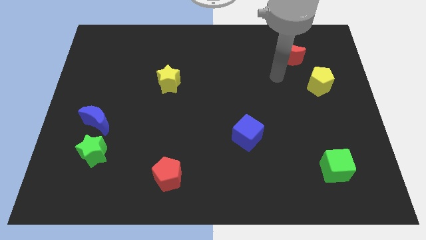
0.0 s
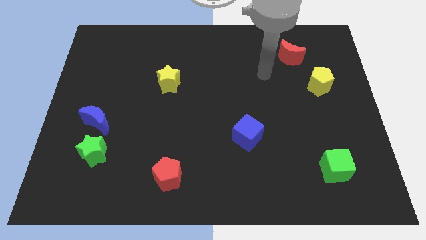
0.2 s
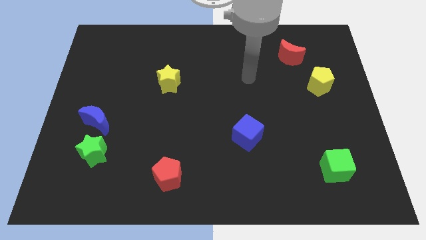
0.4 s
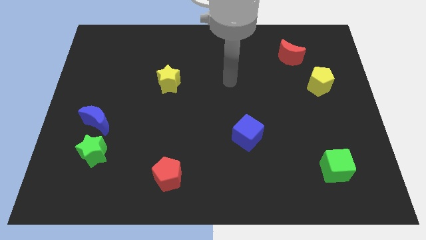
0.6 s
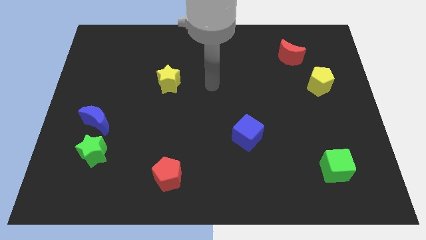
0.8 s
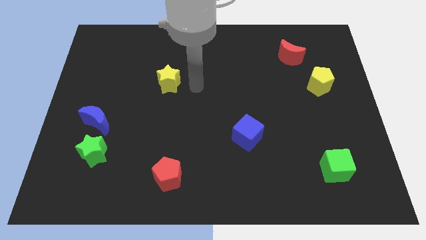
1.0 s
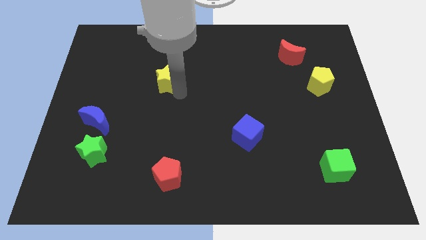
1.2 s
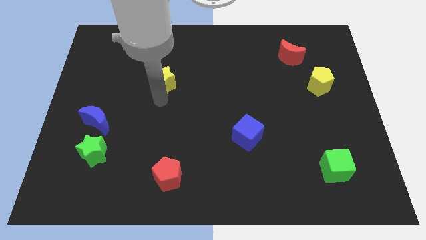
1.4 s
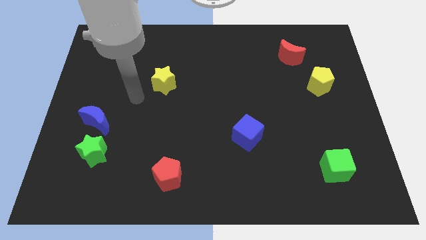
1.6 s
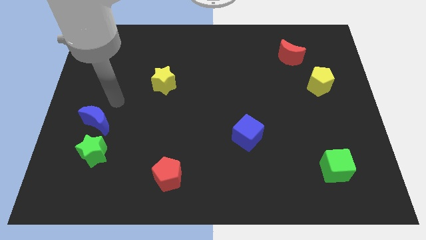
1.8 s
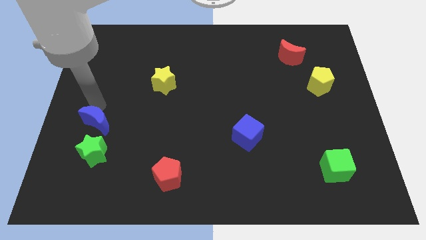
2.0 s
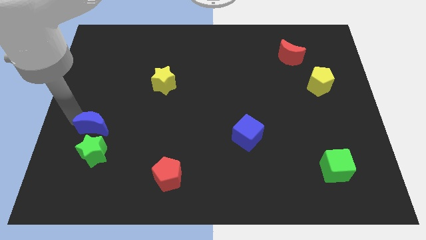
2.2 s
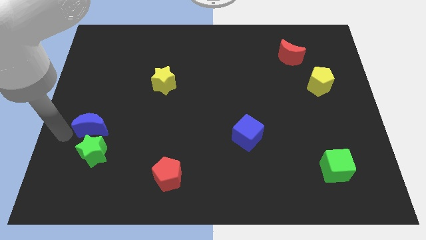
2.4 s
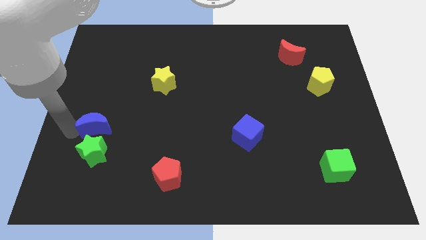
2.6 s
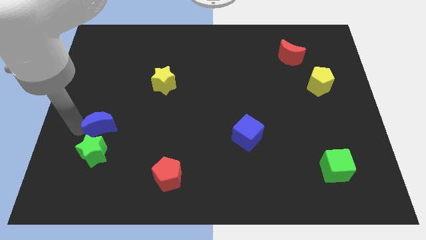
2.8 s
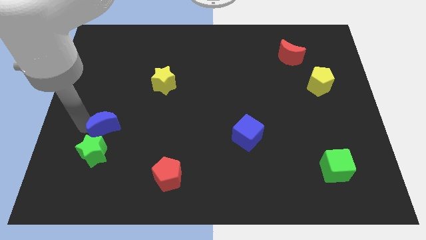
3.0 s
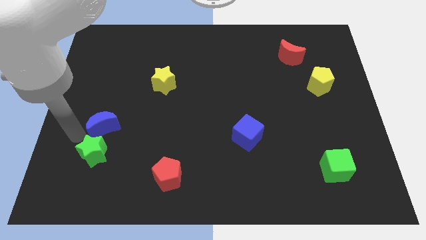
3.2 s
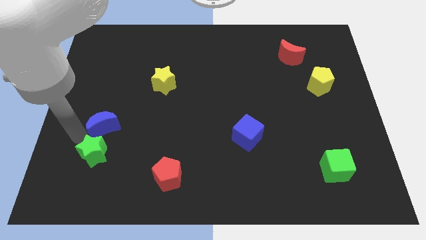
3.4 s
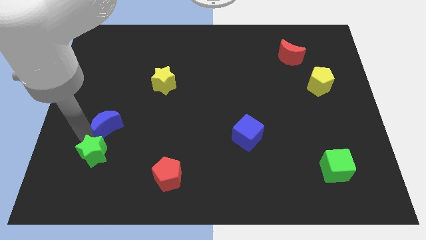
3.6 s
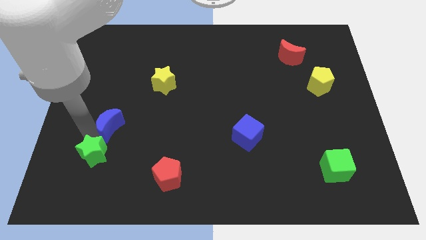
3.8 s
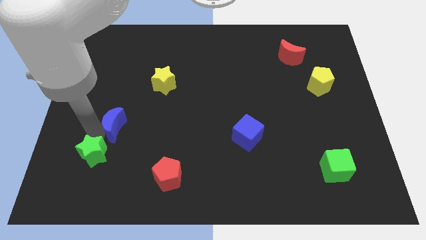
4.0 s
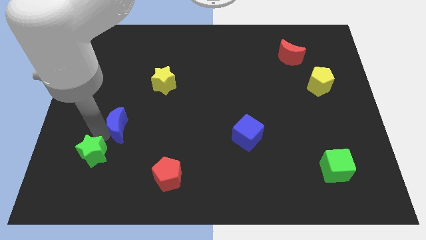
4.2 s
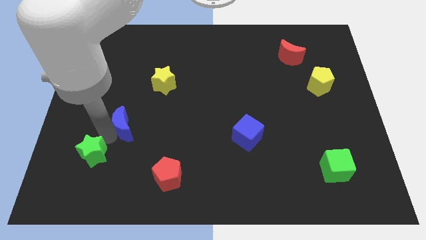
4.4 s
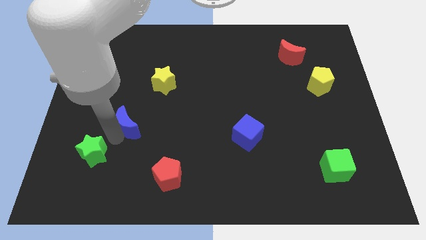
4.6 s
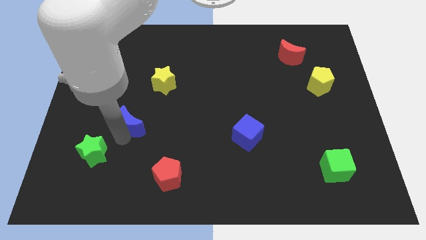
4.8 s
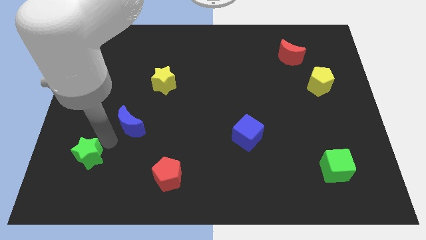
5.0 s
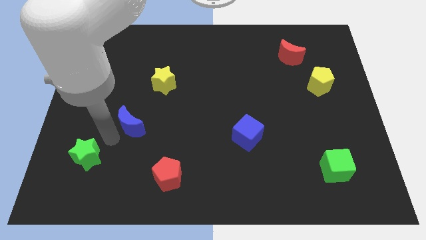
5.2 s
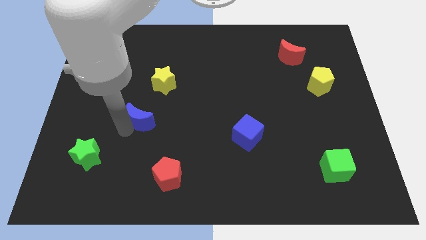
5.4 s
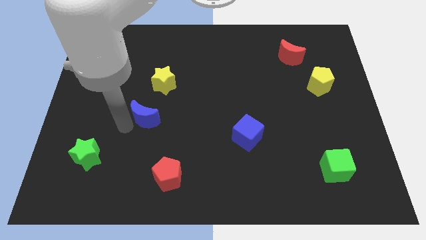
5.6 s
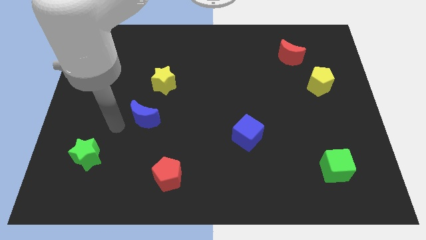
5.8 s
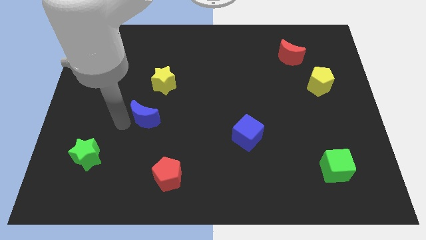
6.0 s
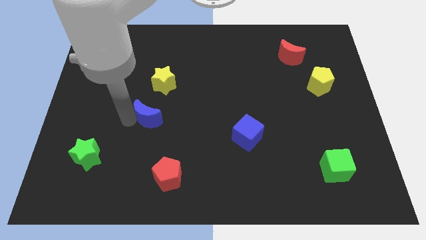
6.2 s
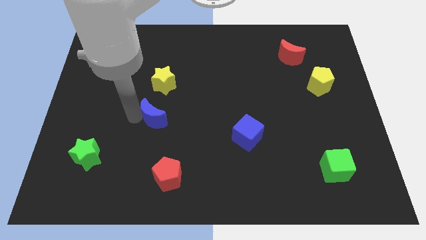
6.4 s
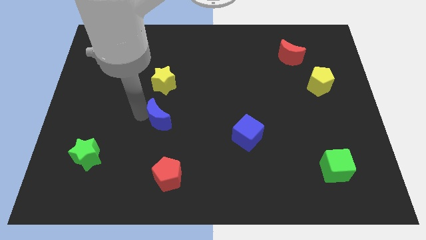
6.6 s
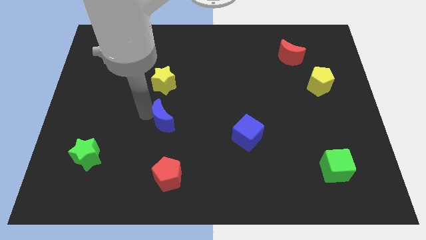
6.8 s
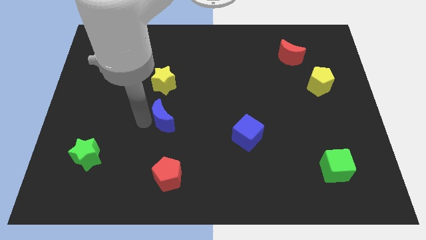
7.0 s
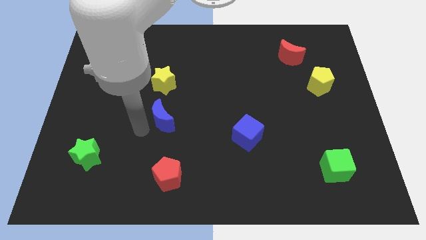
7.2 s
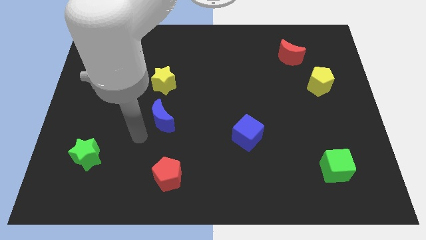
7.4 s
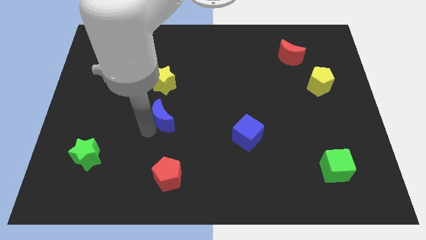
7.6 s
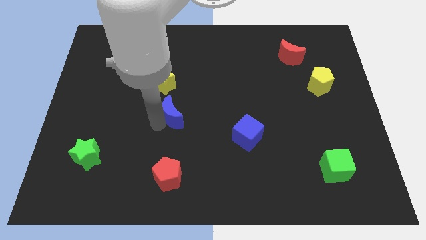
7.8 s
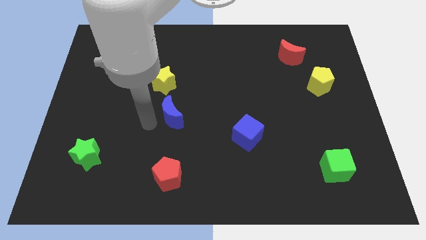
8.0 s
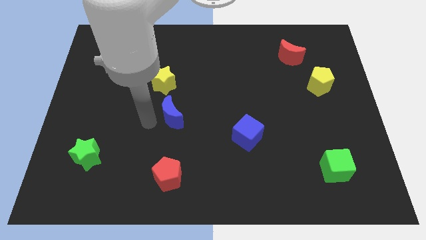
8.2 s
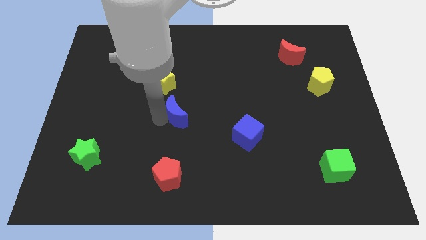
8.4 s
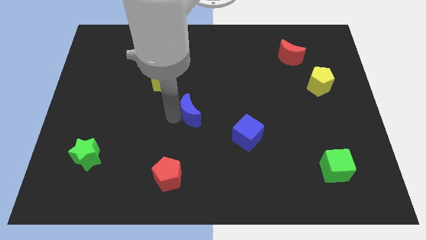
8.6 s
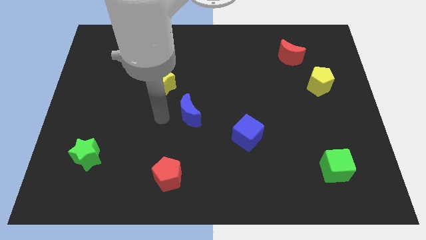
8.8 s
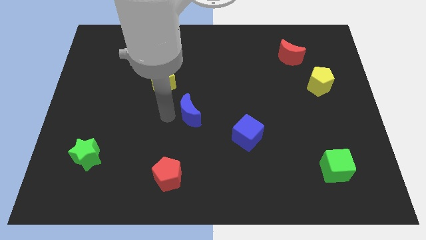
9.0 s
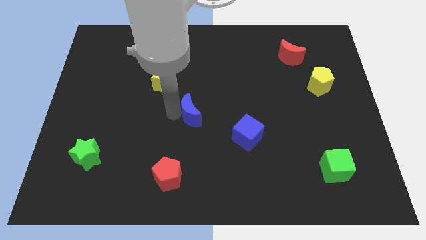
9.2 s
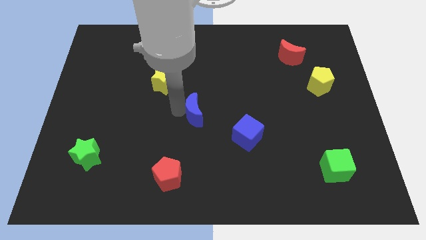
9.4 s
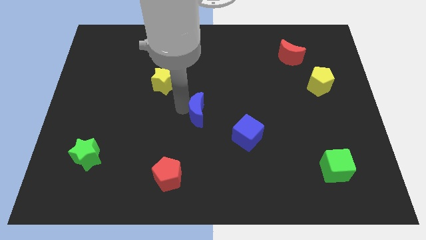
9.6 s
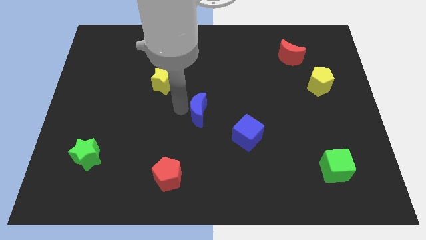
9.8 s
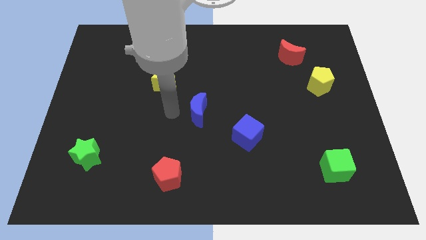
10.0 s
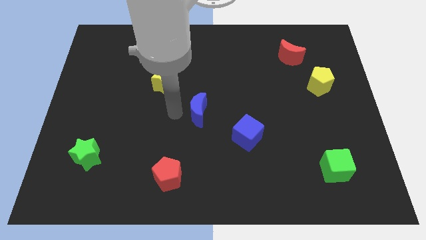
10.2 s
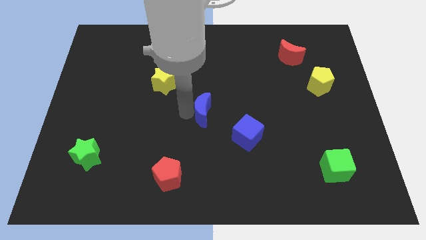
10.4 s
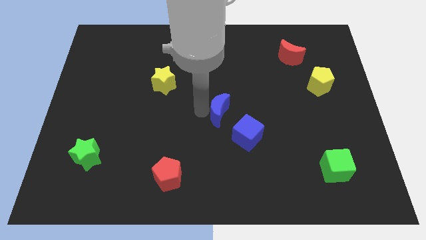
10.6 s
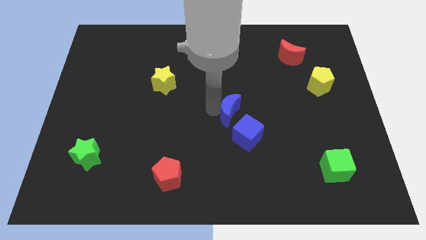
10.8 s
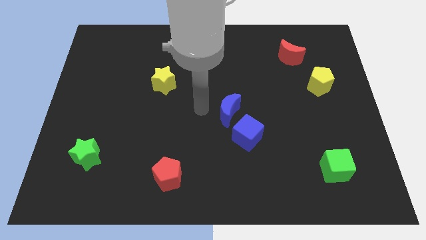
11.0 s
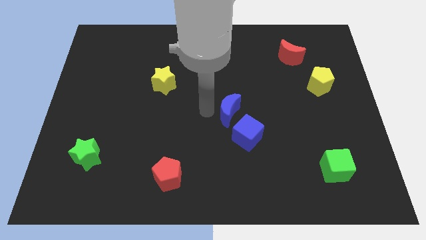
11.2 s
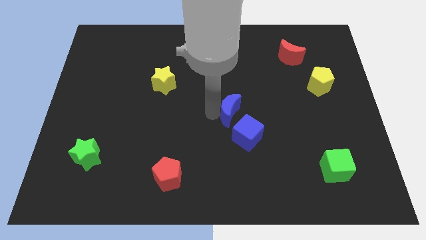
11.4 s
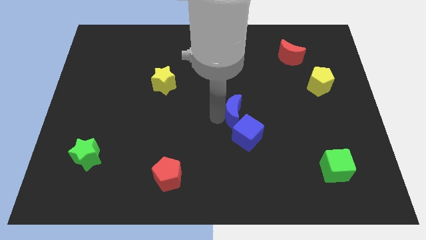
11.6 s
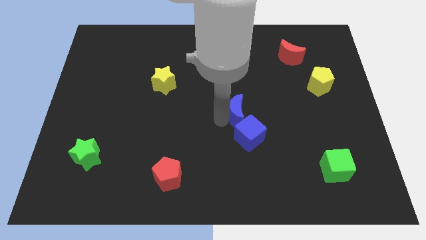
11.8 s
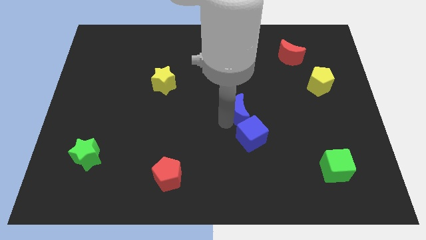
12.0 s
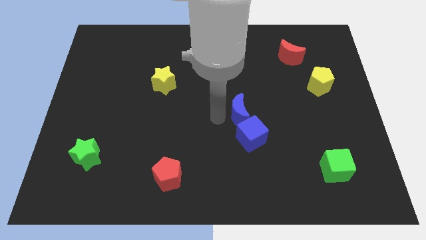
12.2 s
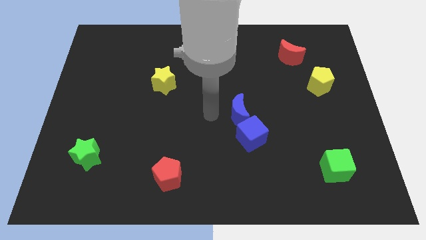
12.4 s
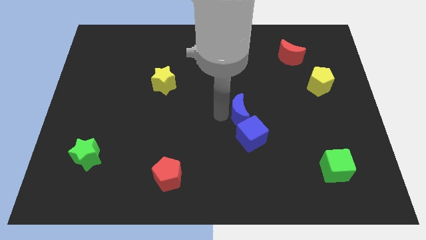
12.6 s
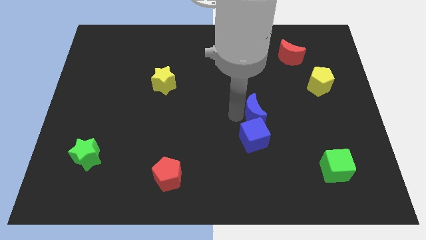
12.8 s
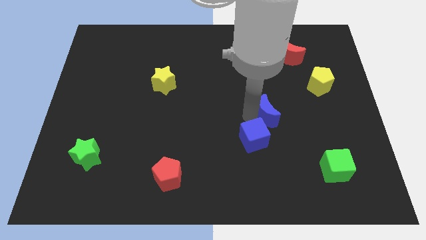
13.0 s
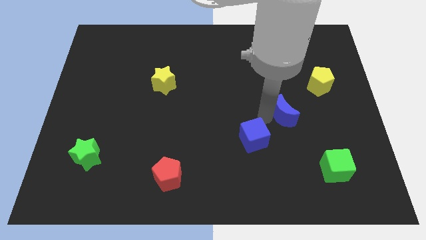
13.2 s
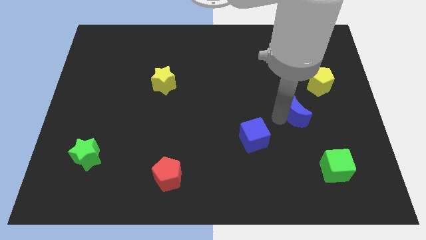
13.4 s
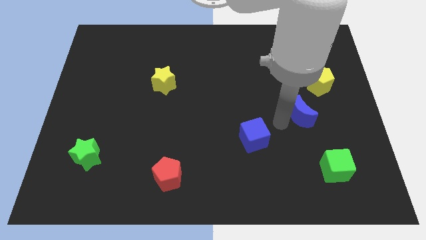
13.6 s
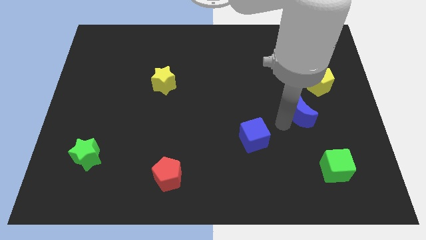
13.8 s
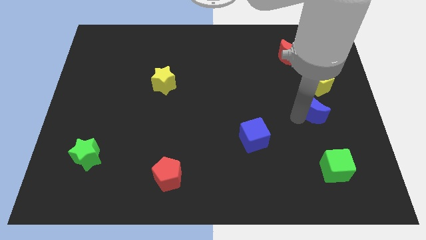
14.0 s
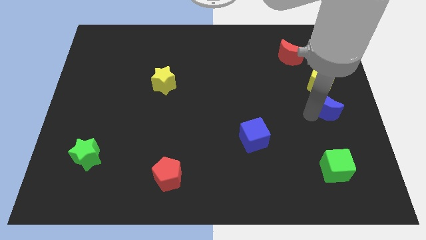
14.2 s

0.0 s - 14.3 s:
push the blue moon to the center right
